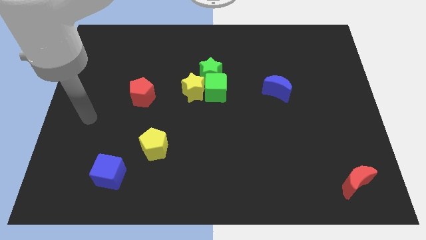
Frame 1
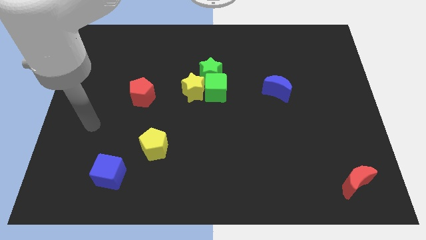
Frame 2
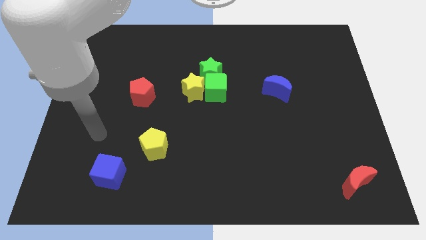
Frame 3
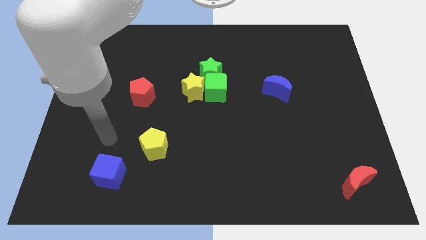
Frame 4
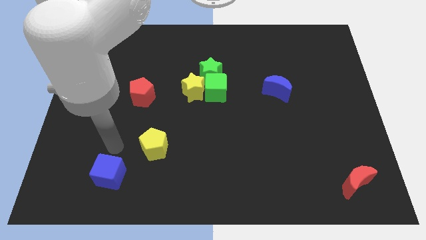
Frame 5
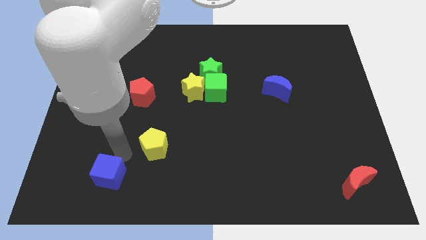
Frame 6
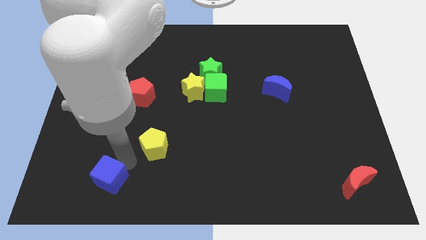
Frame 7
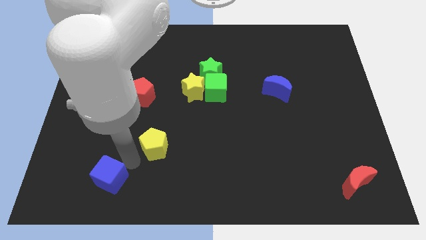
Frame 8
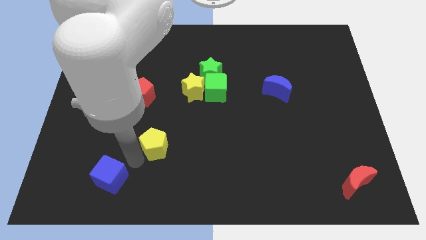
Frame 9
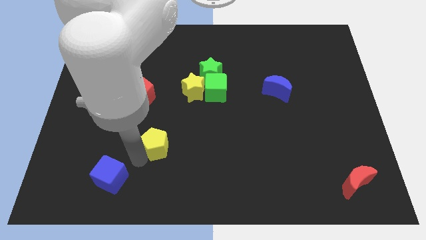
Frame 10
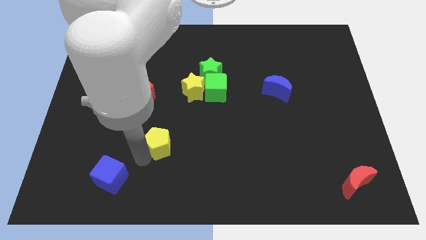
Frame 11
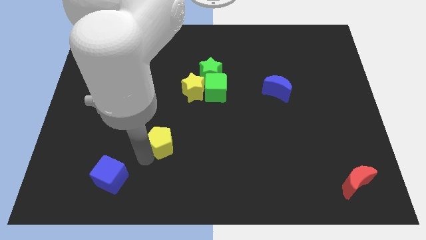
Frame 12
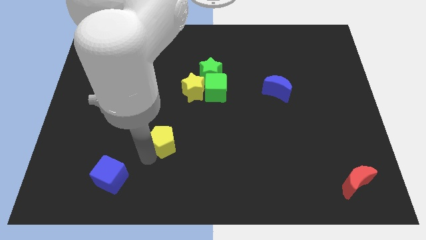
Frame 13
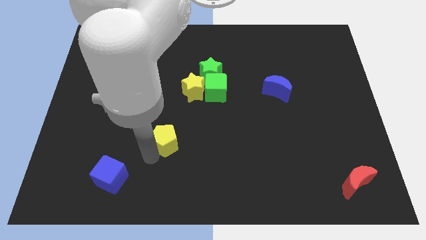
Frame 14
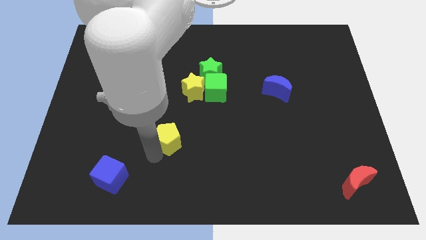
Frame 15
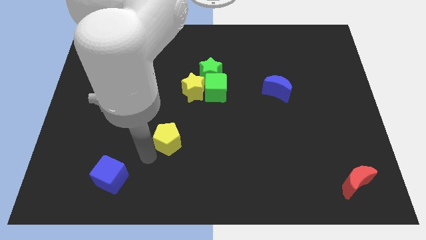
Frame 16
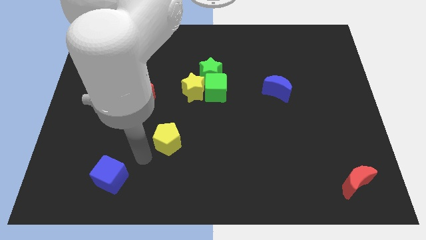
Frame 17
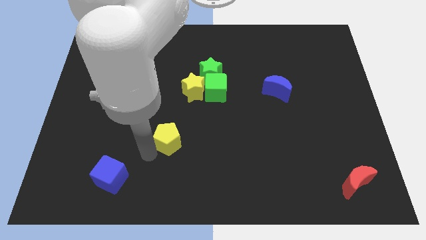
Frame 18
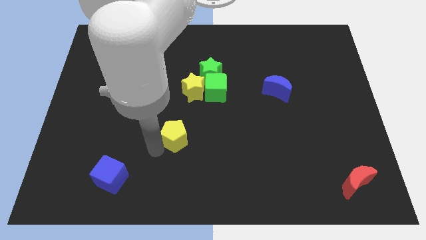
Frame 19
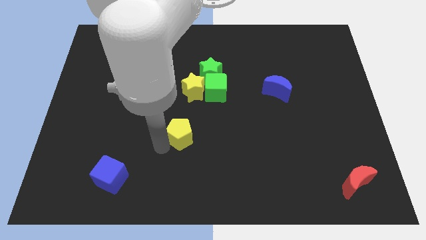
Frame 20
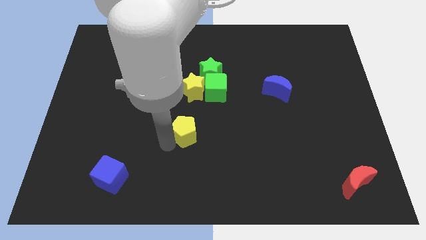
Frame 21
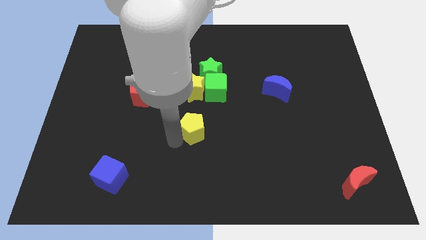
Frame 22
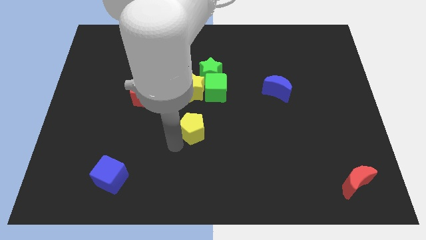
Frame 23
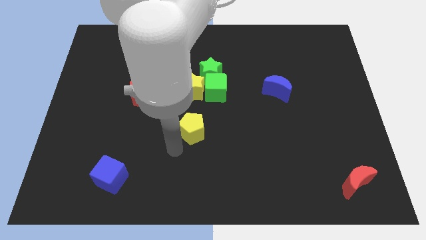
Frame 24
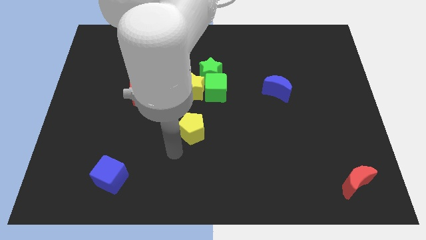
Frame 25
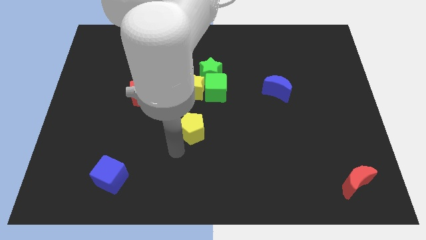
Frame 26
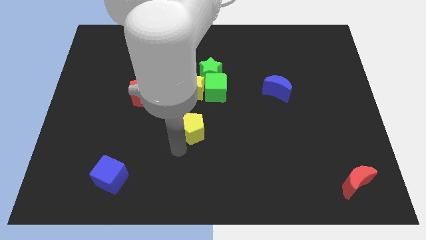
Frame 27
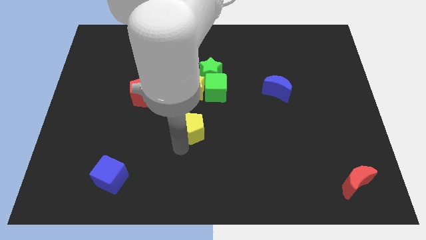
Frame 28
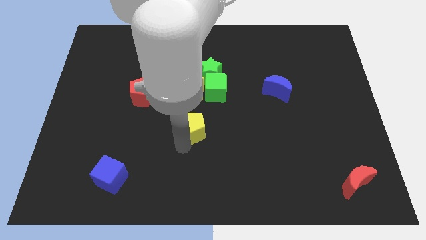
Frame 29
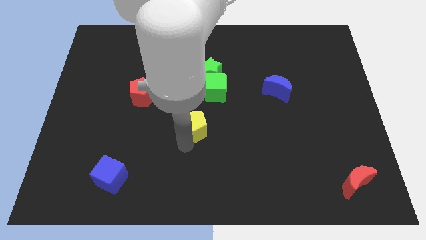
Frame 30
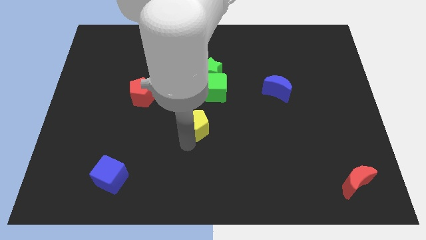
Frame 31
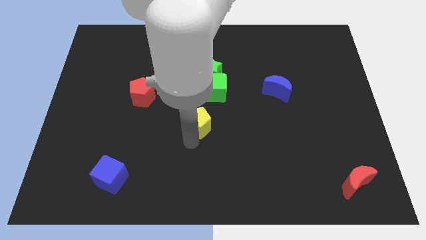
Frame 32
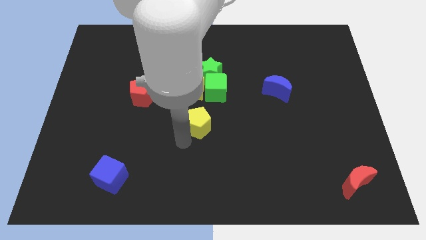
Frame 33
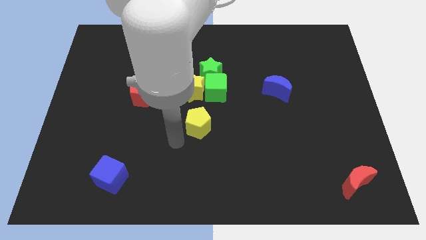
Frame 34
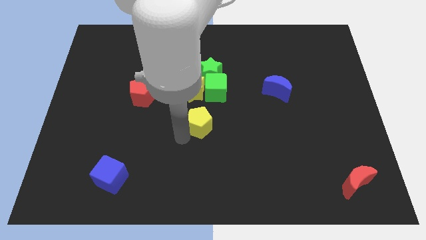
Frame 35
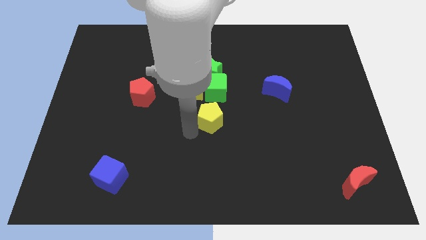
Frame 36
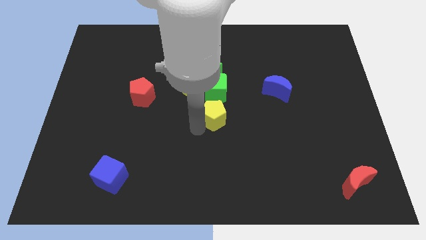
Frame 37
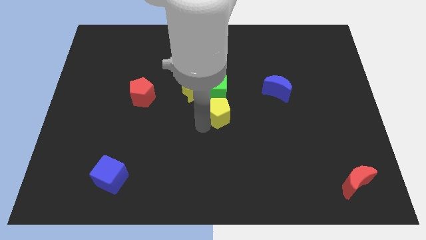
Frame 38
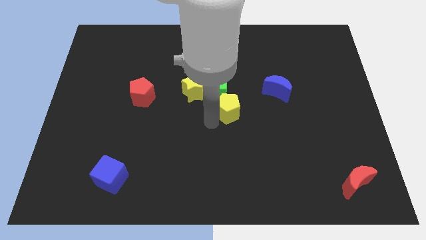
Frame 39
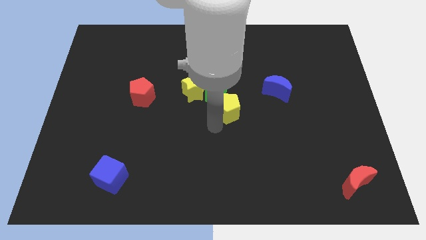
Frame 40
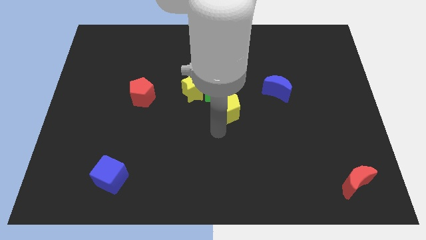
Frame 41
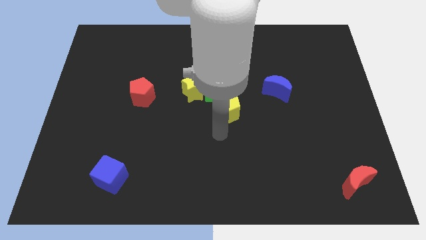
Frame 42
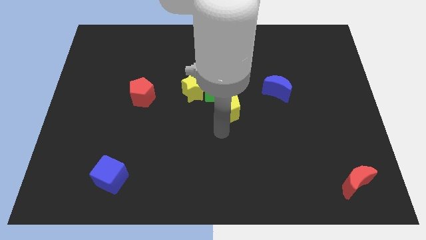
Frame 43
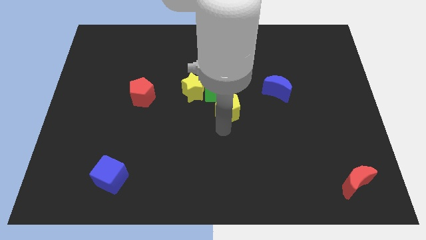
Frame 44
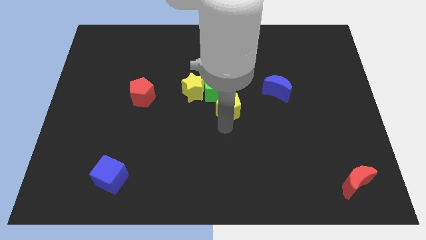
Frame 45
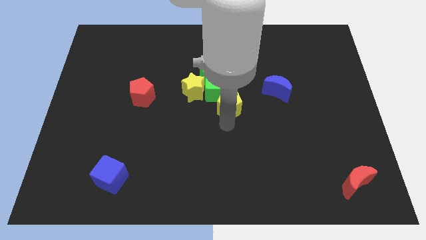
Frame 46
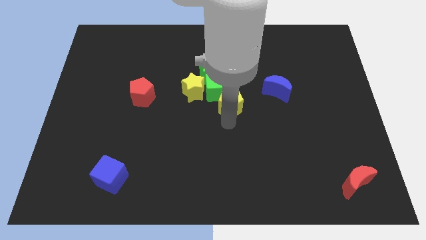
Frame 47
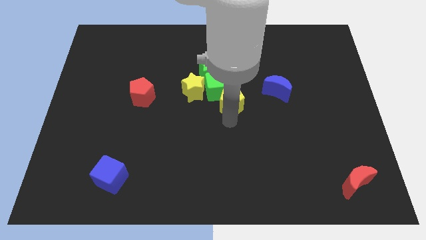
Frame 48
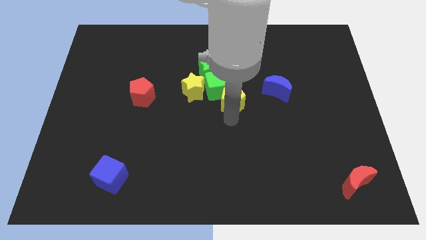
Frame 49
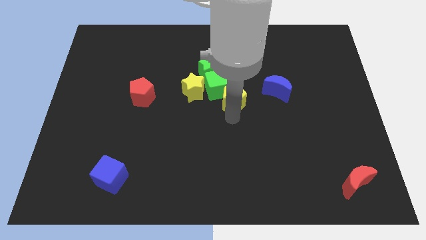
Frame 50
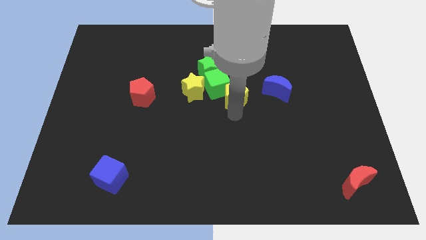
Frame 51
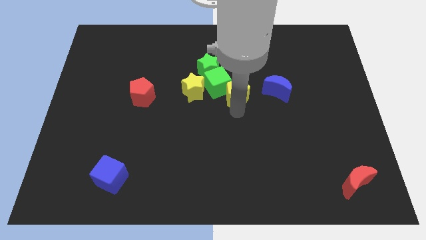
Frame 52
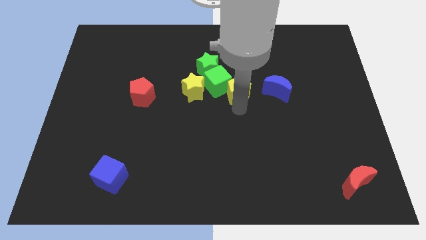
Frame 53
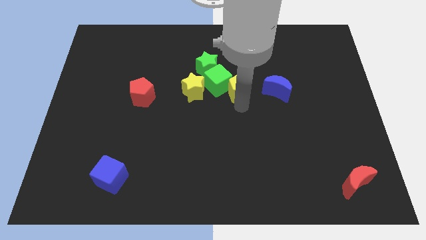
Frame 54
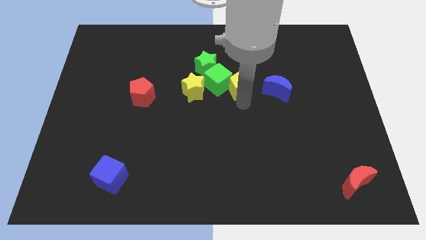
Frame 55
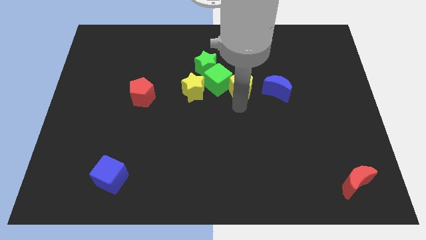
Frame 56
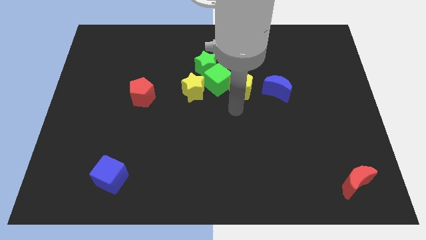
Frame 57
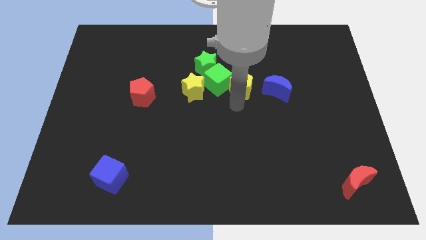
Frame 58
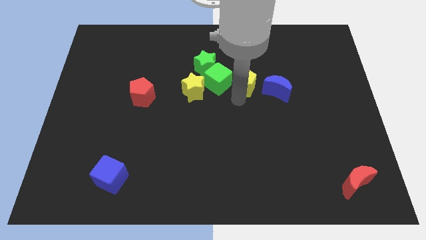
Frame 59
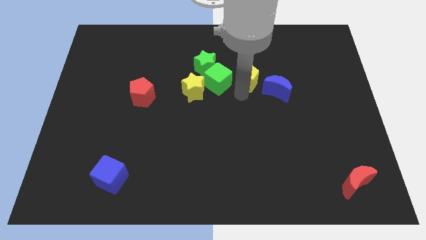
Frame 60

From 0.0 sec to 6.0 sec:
slide the yellow pentagon right of the green star

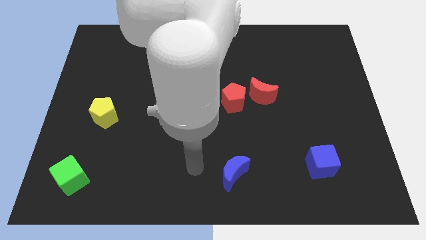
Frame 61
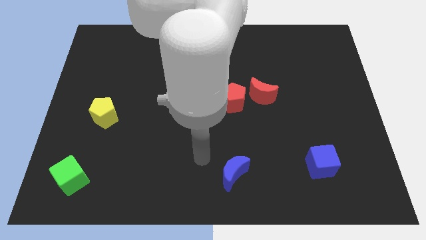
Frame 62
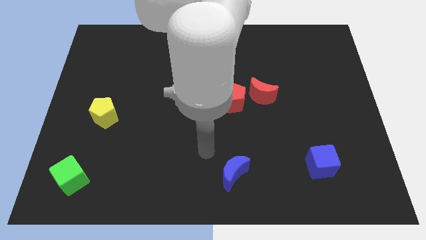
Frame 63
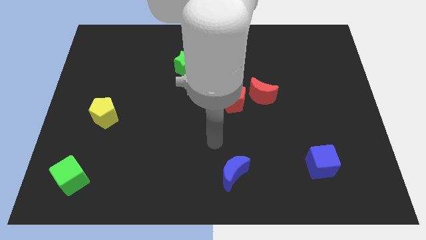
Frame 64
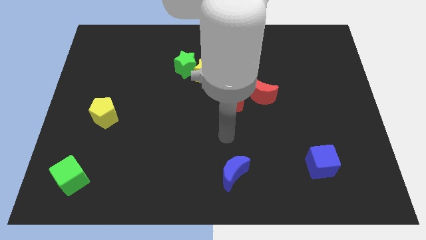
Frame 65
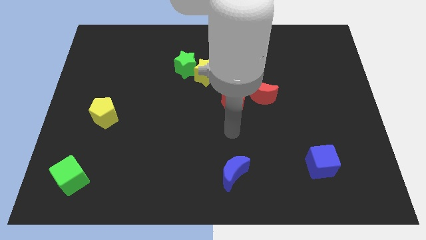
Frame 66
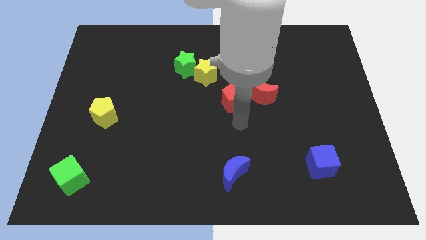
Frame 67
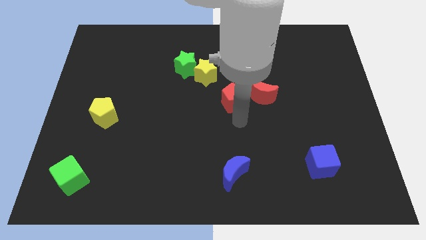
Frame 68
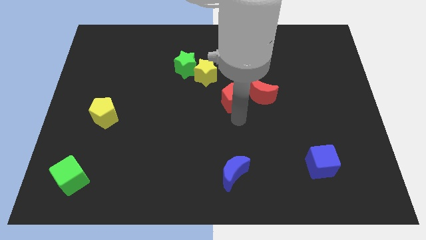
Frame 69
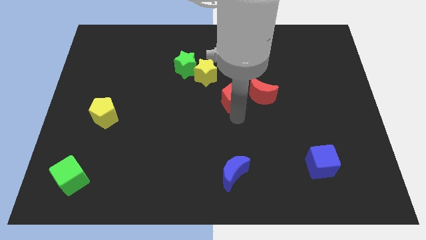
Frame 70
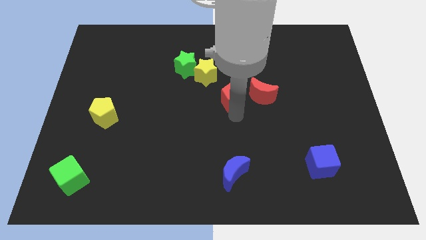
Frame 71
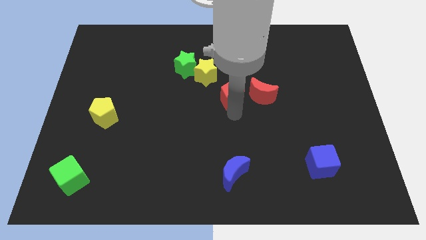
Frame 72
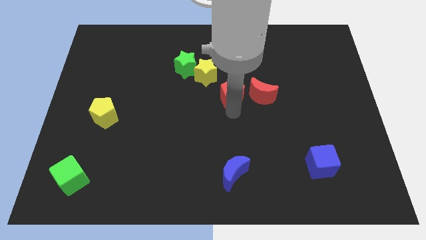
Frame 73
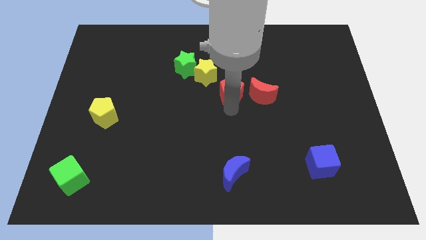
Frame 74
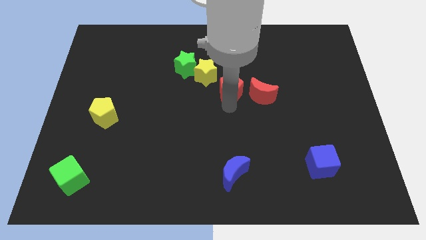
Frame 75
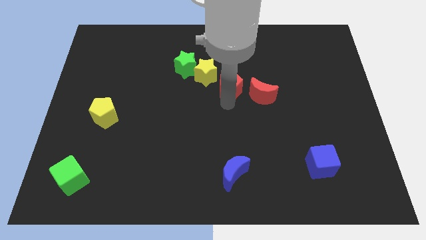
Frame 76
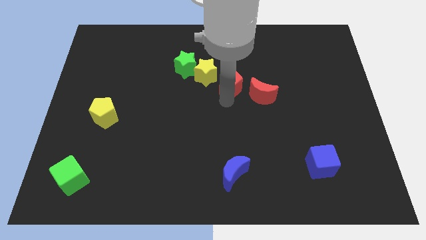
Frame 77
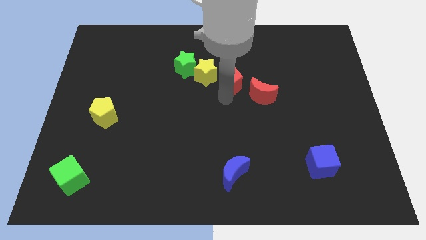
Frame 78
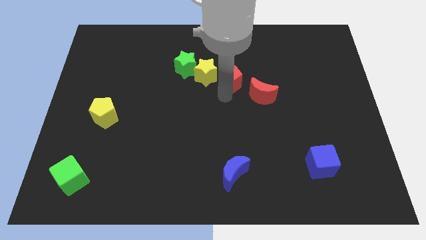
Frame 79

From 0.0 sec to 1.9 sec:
push the red pentagon right of the green star

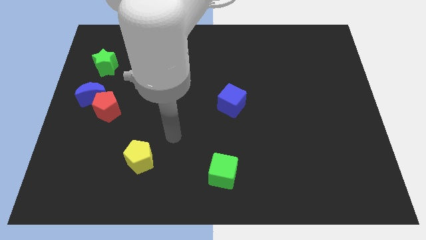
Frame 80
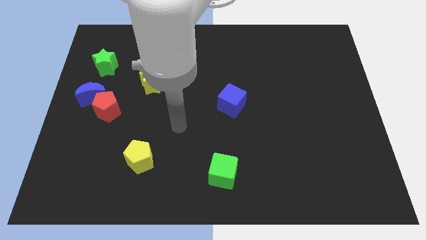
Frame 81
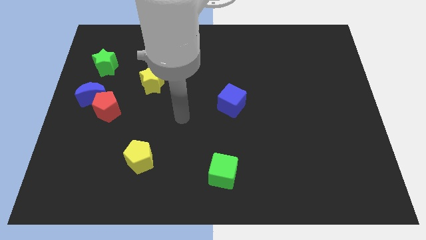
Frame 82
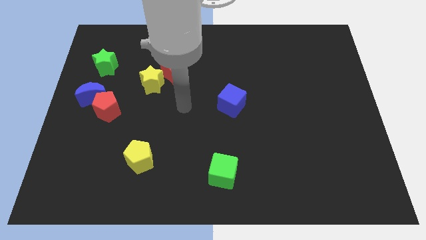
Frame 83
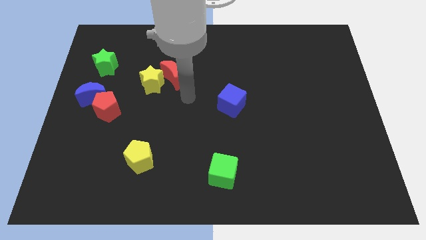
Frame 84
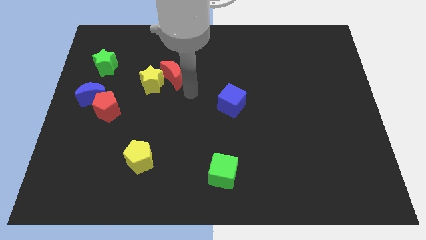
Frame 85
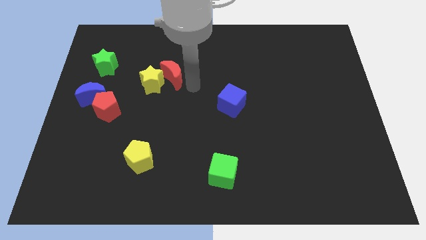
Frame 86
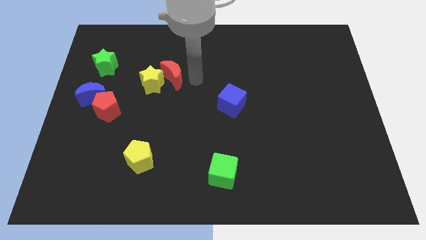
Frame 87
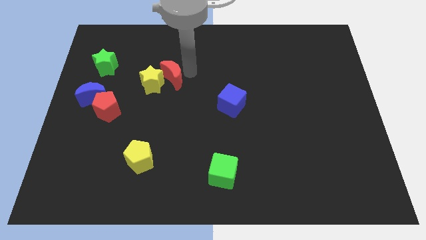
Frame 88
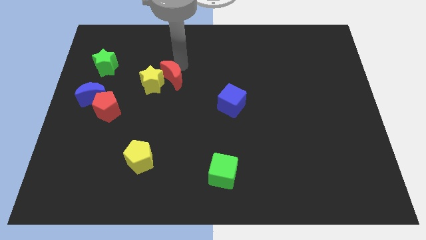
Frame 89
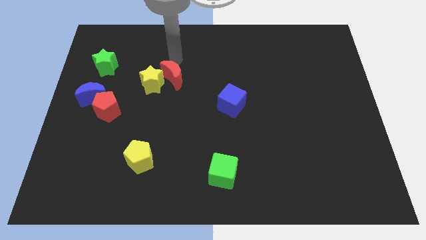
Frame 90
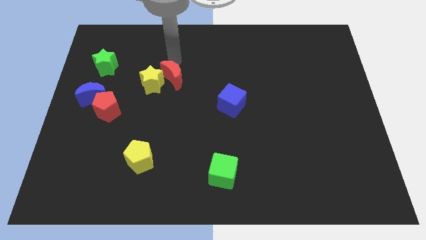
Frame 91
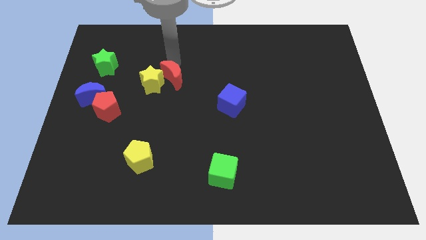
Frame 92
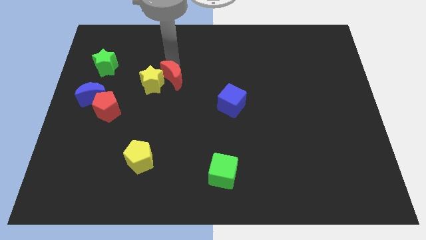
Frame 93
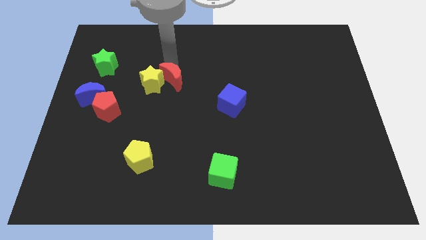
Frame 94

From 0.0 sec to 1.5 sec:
move the red moon diagonally down and to the right of the yellow star
